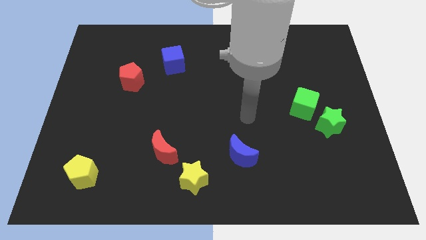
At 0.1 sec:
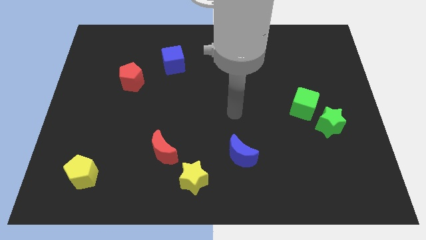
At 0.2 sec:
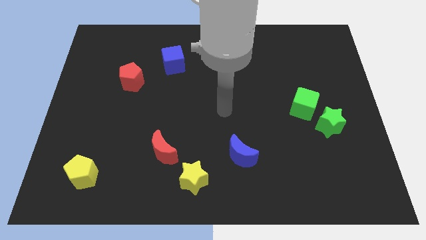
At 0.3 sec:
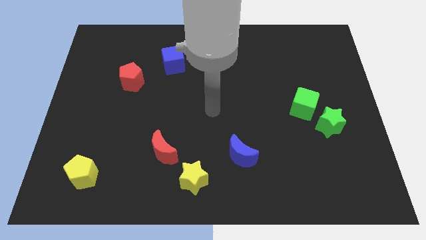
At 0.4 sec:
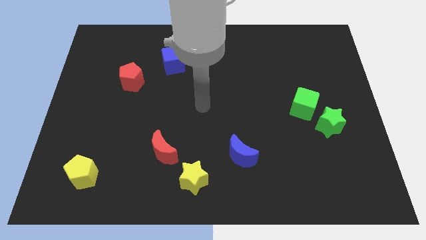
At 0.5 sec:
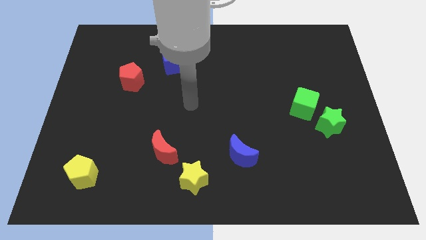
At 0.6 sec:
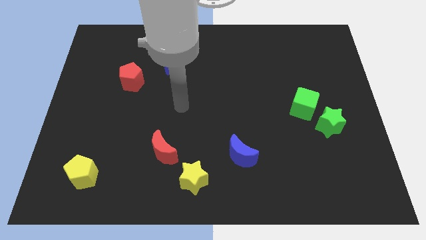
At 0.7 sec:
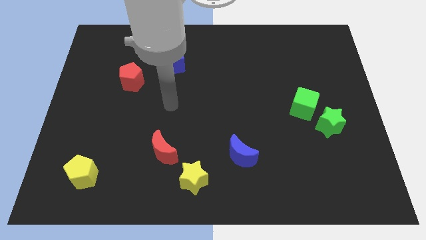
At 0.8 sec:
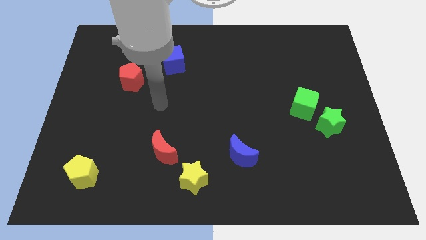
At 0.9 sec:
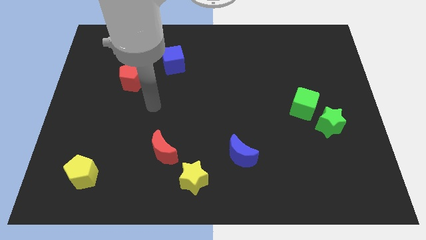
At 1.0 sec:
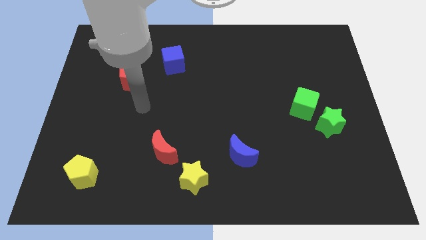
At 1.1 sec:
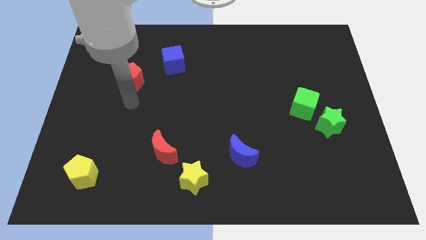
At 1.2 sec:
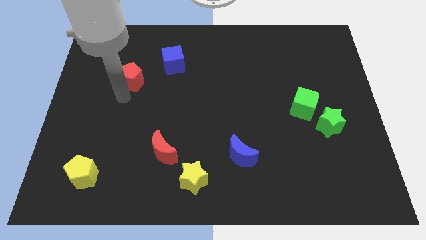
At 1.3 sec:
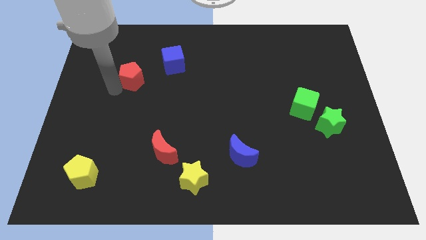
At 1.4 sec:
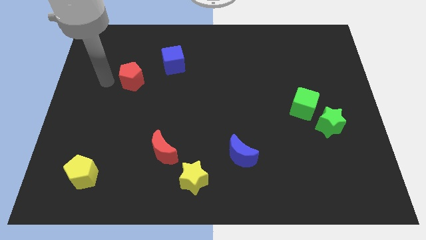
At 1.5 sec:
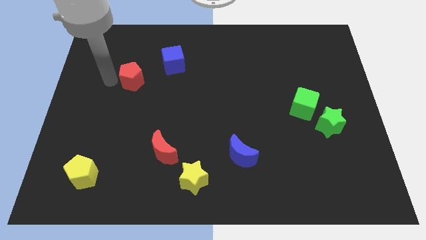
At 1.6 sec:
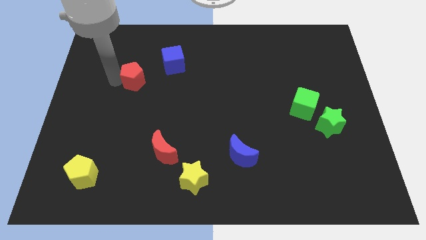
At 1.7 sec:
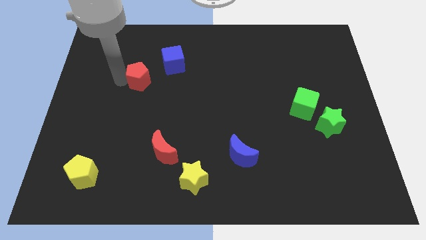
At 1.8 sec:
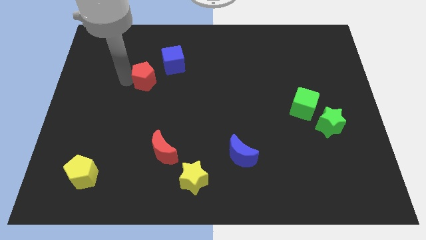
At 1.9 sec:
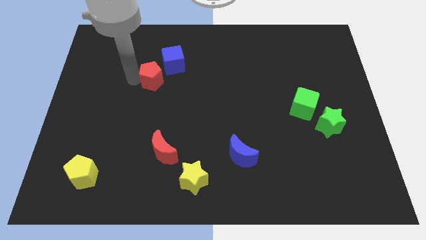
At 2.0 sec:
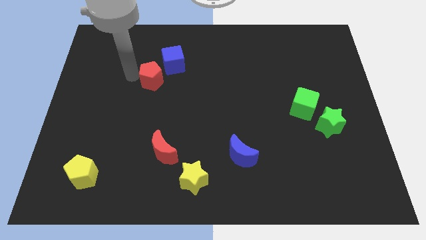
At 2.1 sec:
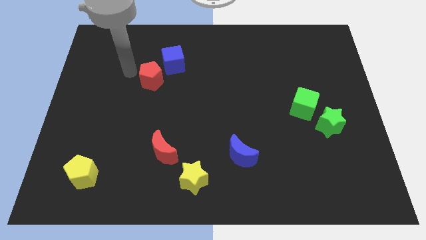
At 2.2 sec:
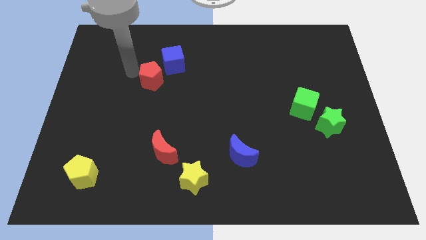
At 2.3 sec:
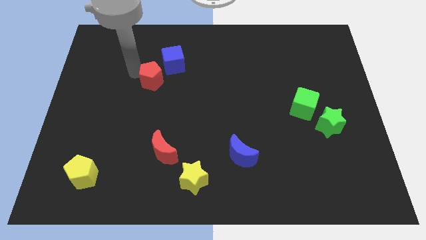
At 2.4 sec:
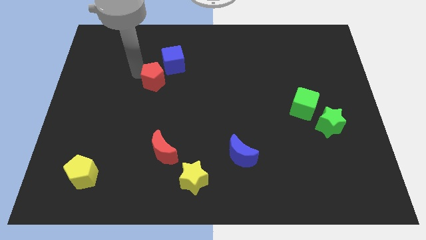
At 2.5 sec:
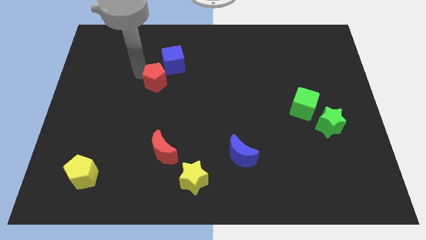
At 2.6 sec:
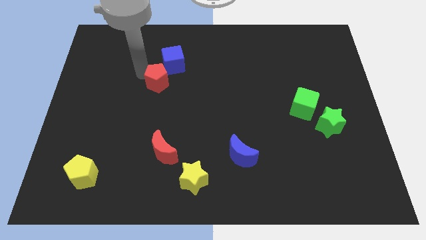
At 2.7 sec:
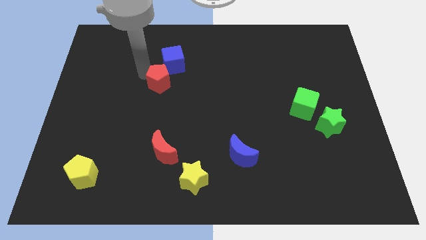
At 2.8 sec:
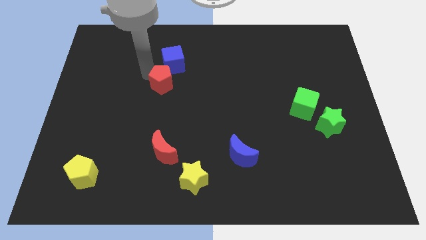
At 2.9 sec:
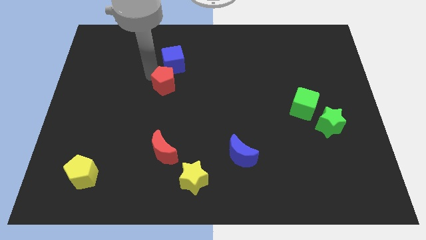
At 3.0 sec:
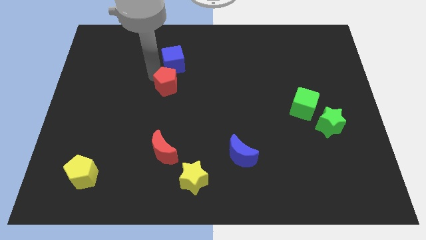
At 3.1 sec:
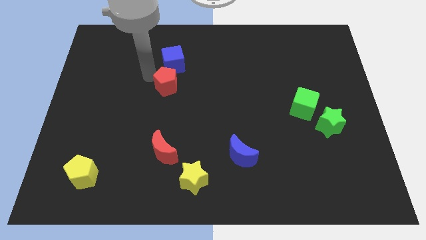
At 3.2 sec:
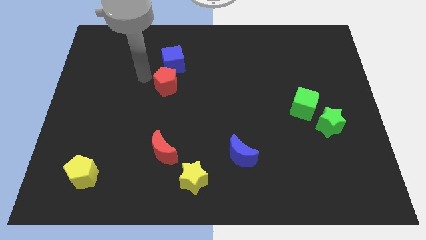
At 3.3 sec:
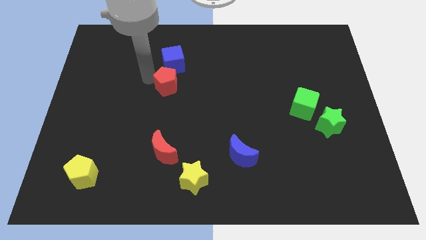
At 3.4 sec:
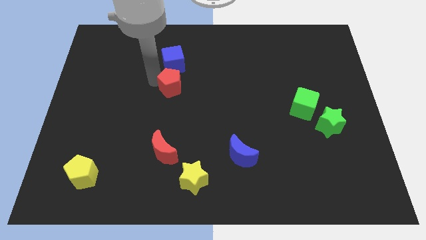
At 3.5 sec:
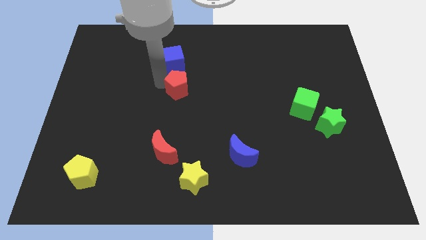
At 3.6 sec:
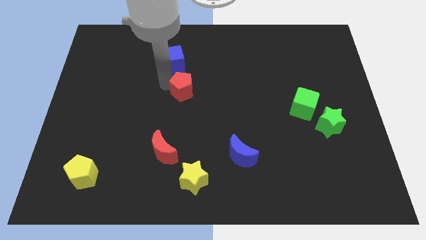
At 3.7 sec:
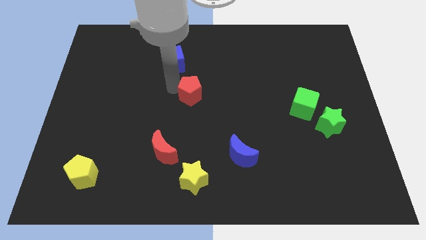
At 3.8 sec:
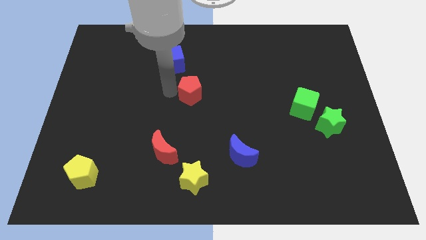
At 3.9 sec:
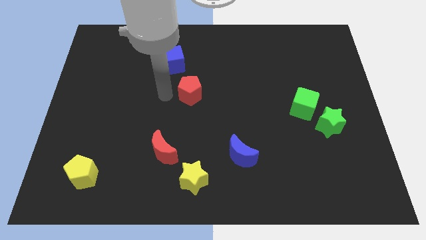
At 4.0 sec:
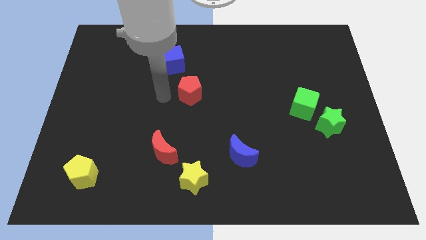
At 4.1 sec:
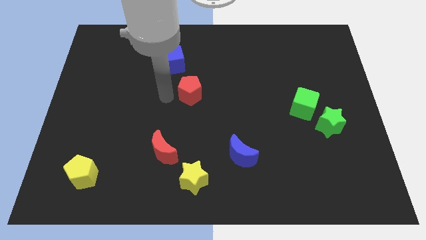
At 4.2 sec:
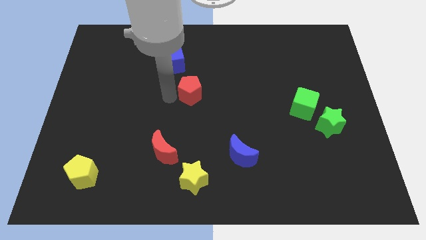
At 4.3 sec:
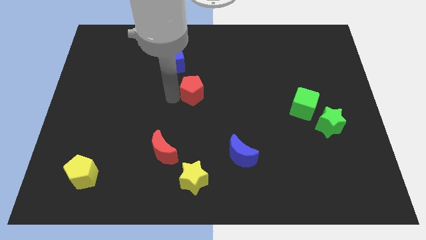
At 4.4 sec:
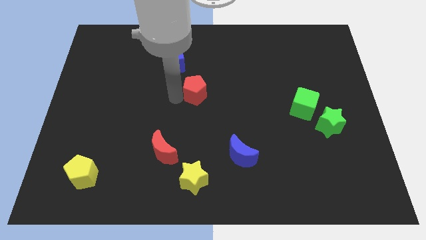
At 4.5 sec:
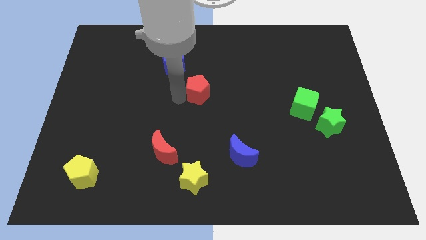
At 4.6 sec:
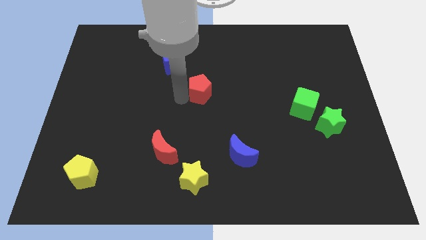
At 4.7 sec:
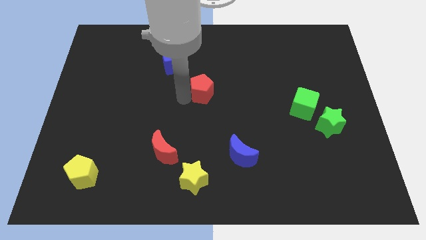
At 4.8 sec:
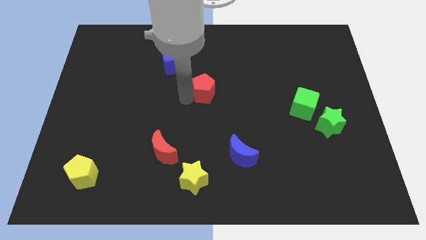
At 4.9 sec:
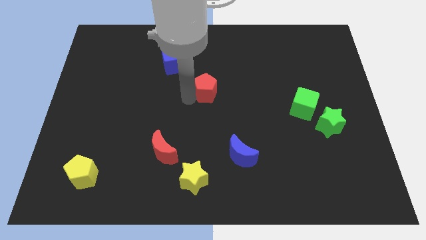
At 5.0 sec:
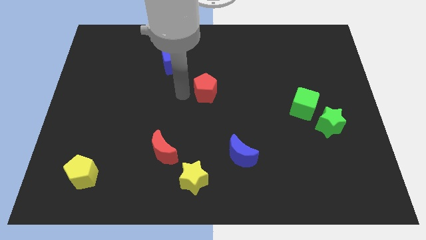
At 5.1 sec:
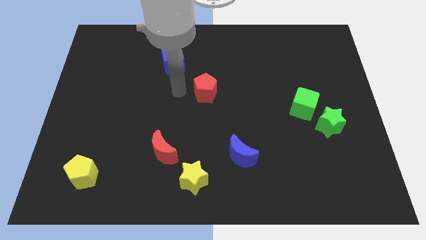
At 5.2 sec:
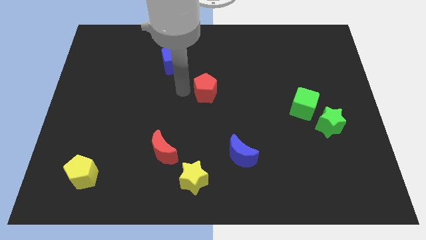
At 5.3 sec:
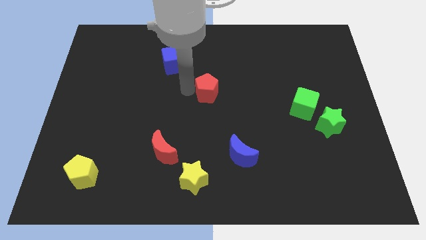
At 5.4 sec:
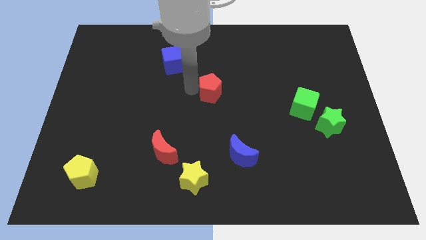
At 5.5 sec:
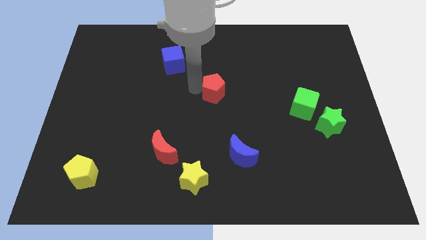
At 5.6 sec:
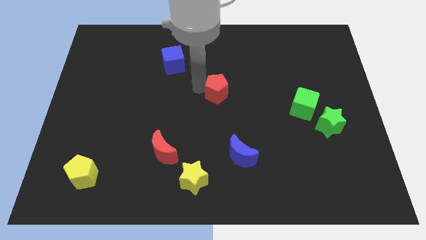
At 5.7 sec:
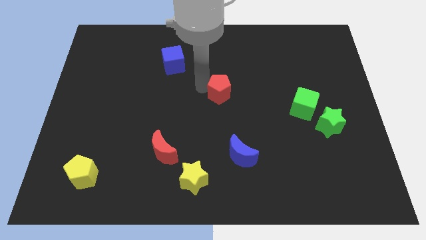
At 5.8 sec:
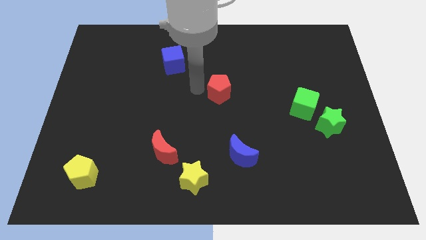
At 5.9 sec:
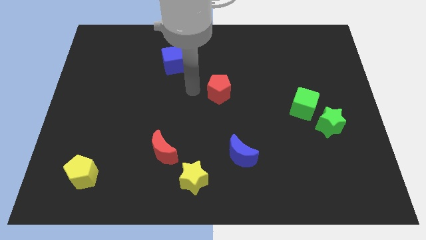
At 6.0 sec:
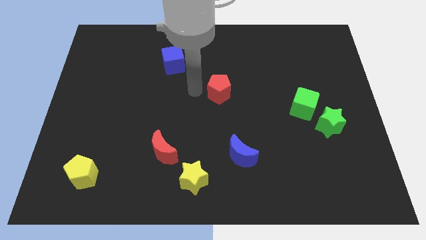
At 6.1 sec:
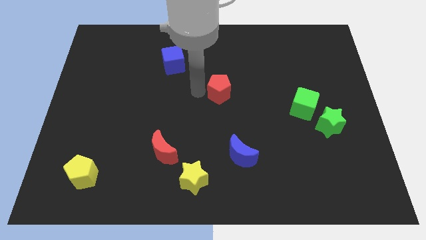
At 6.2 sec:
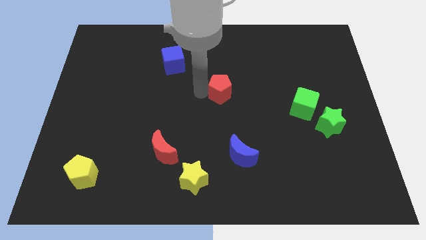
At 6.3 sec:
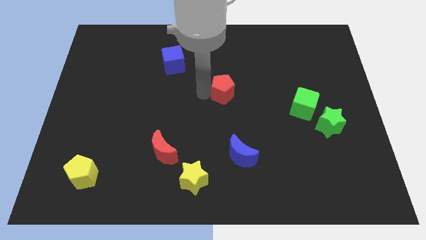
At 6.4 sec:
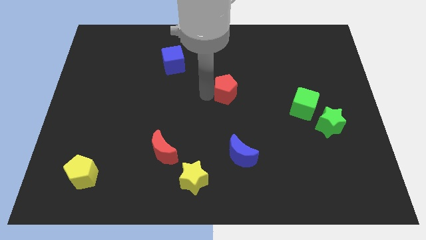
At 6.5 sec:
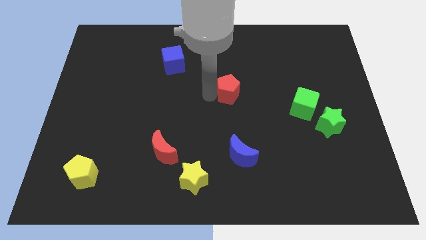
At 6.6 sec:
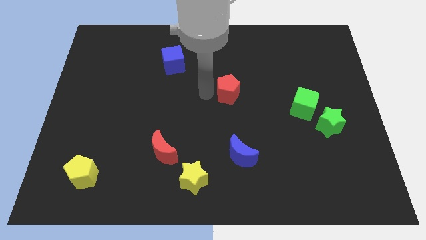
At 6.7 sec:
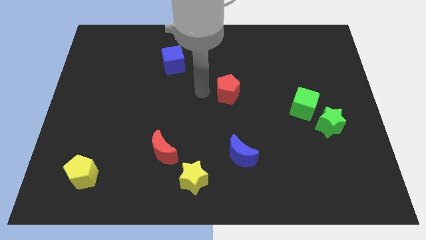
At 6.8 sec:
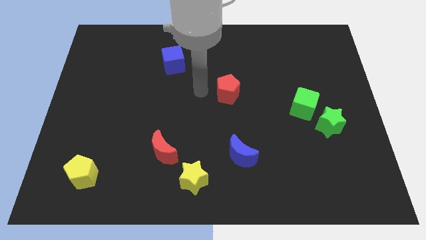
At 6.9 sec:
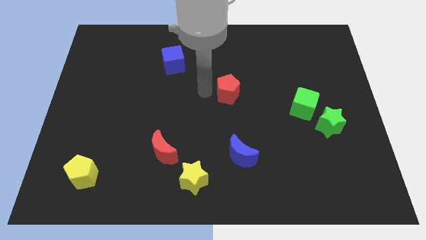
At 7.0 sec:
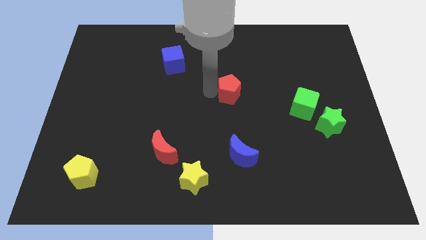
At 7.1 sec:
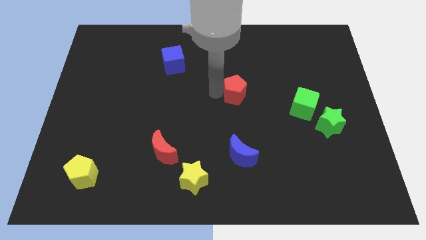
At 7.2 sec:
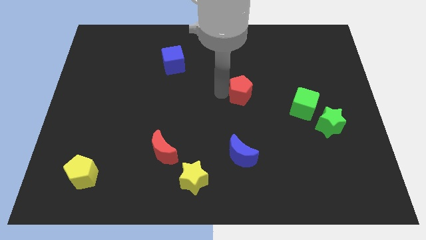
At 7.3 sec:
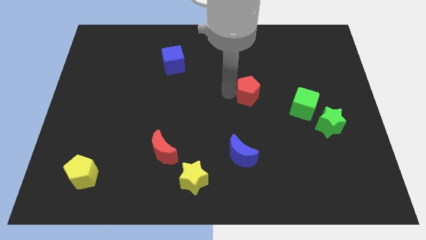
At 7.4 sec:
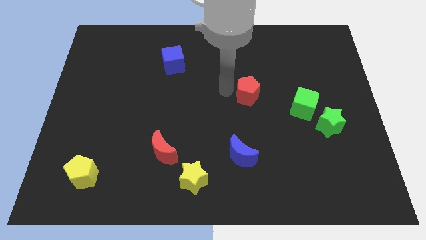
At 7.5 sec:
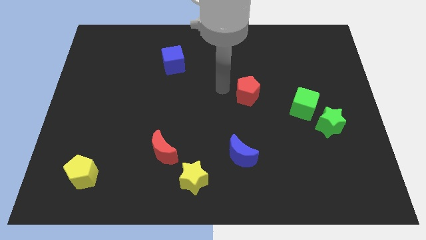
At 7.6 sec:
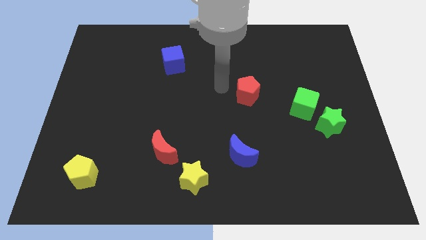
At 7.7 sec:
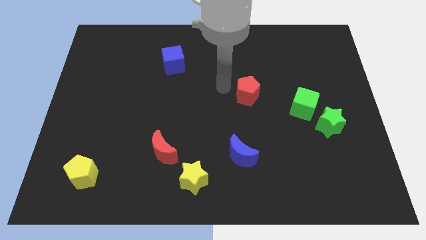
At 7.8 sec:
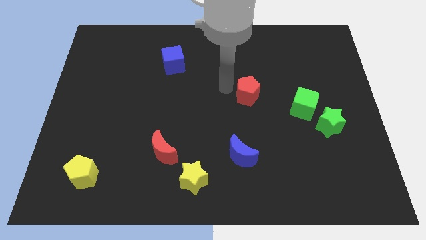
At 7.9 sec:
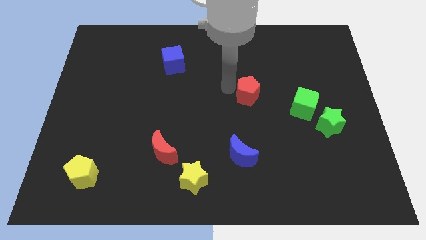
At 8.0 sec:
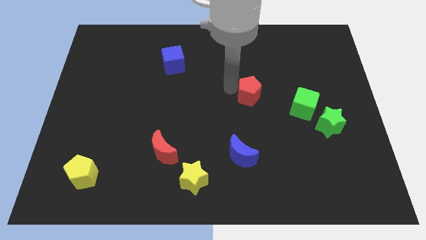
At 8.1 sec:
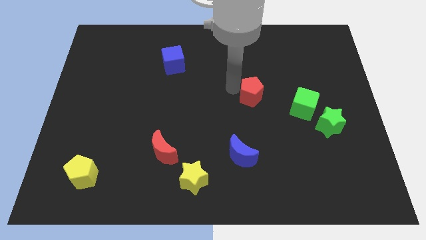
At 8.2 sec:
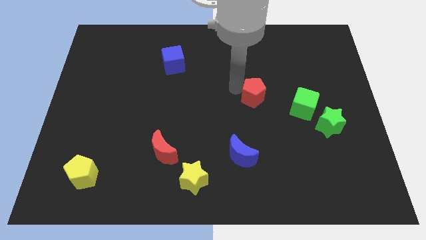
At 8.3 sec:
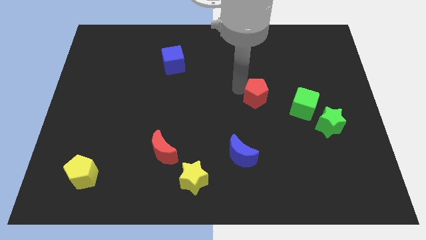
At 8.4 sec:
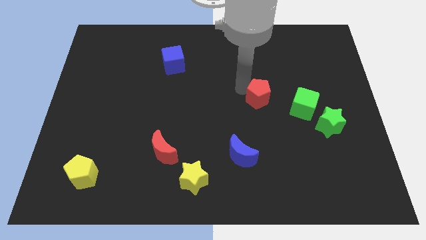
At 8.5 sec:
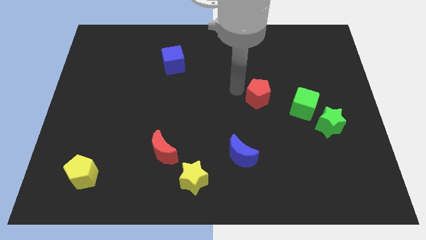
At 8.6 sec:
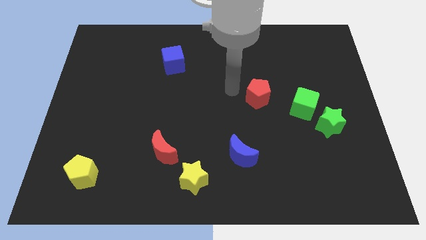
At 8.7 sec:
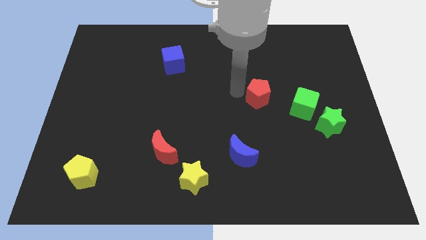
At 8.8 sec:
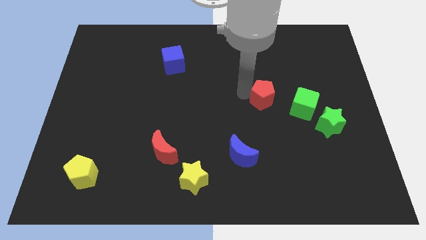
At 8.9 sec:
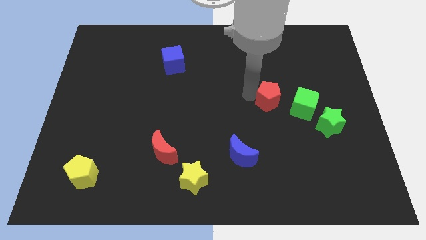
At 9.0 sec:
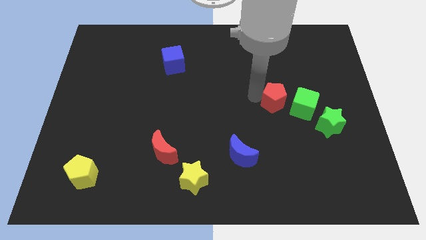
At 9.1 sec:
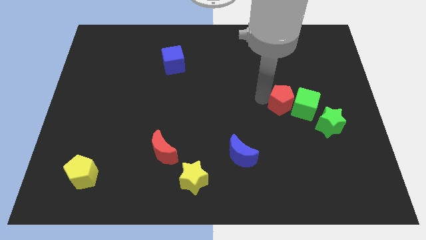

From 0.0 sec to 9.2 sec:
move the red pentagon close to the green cube
